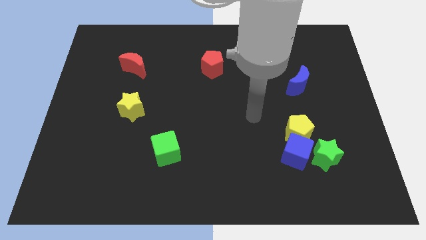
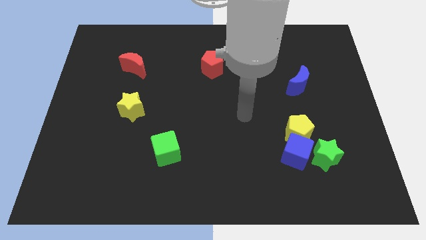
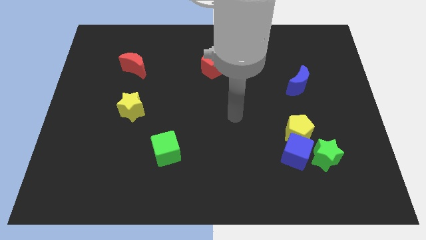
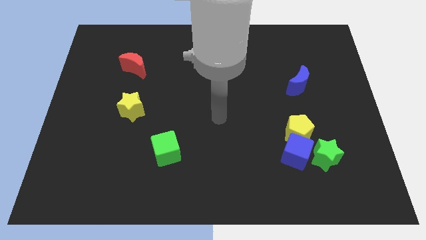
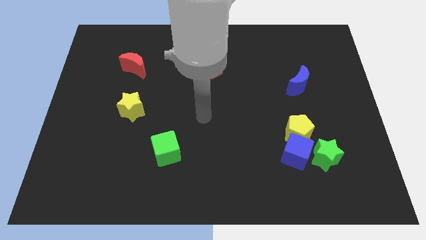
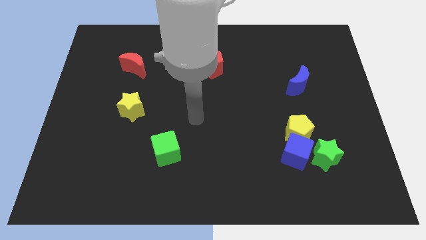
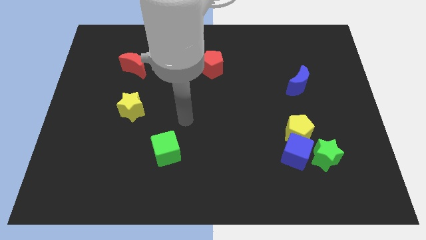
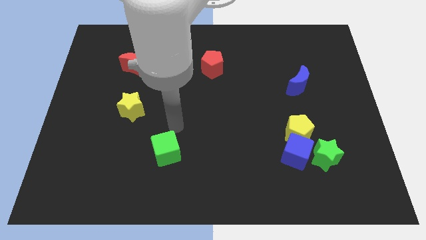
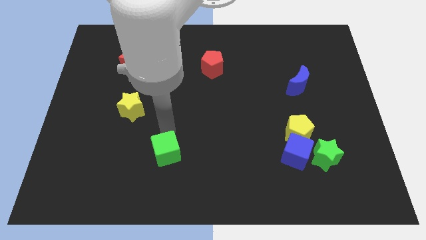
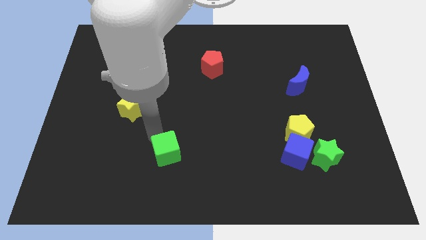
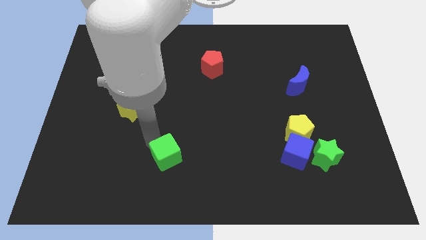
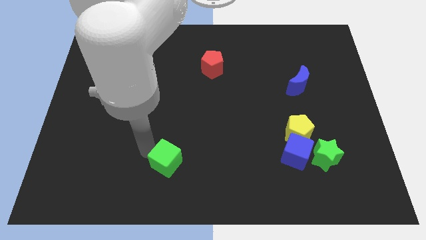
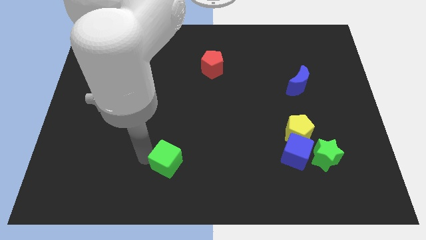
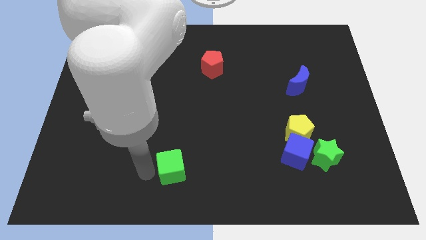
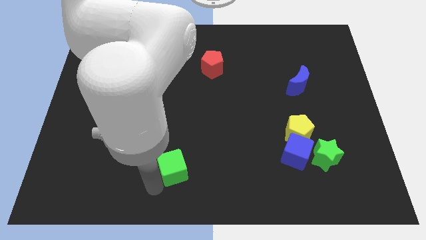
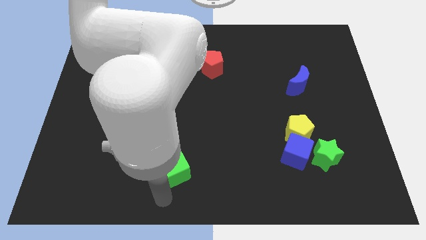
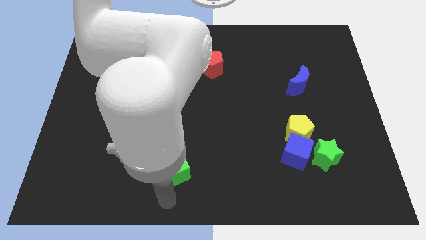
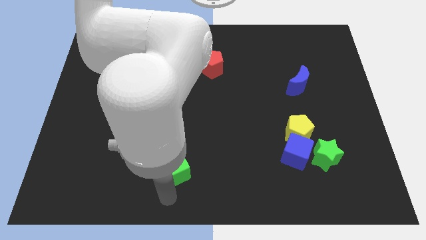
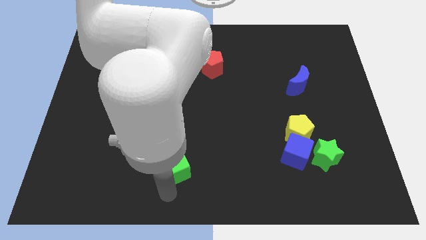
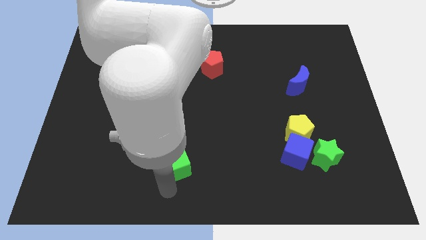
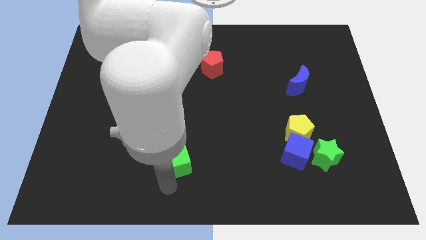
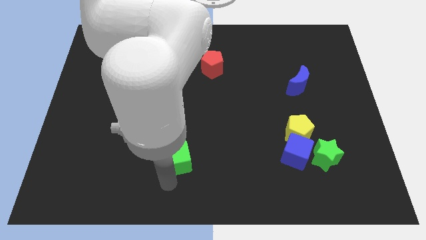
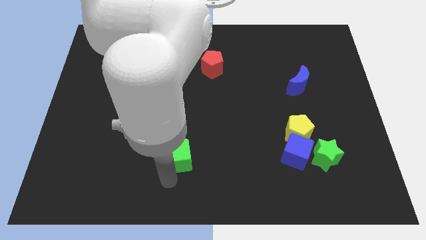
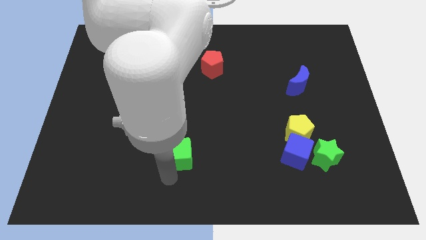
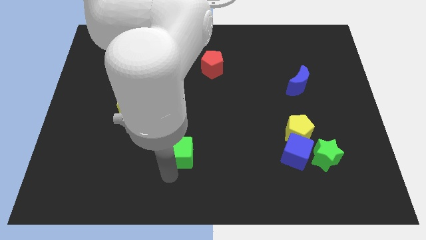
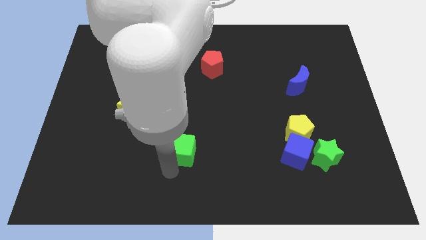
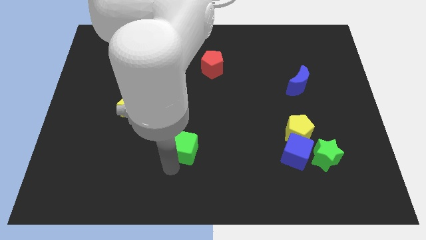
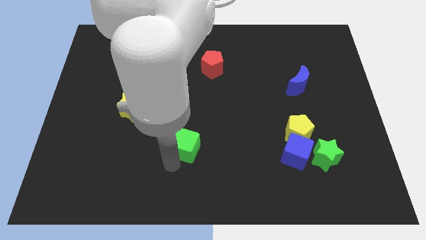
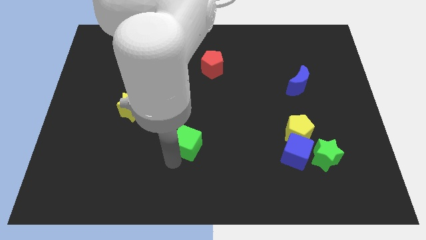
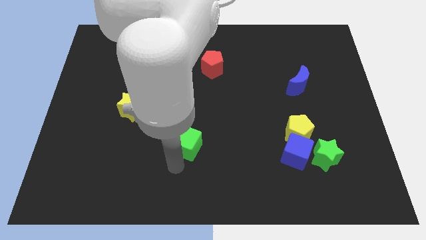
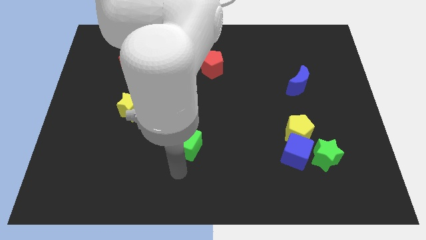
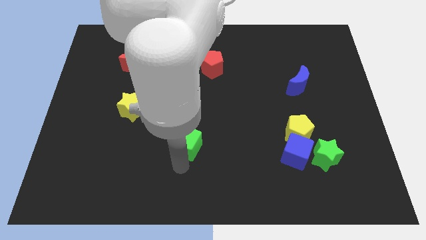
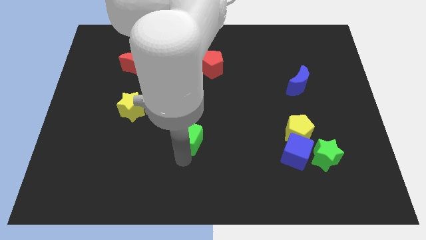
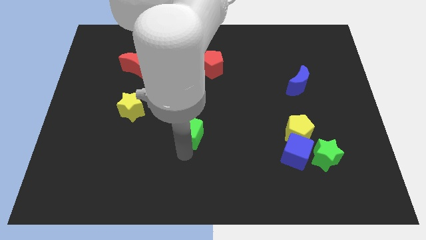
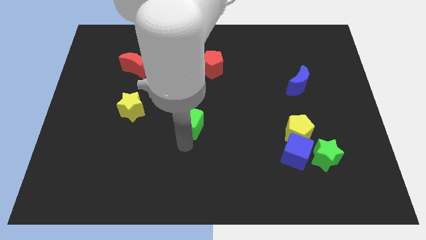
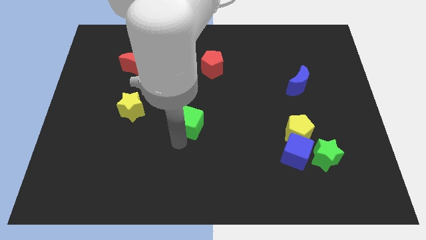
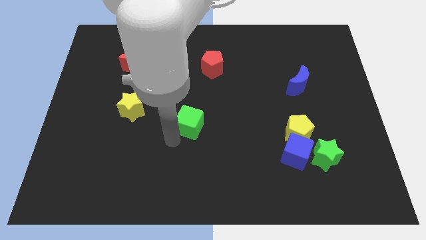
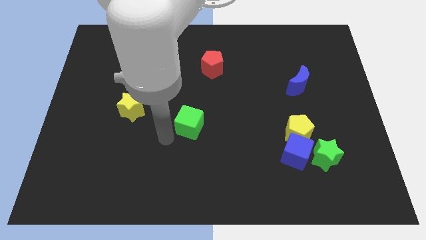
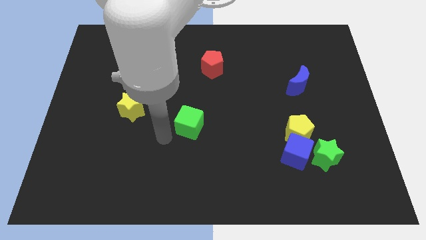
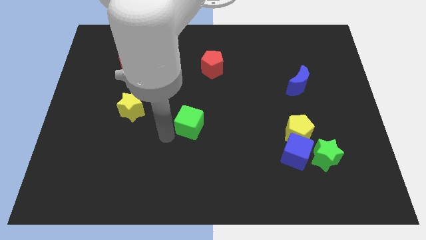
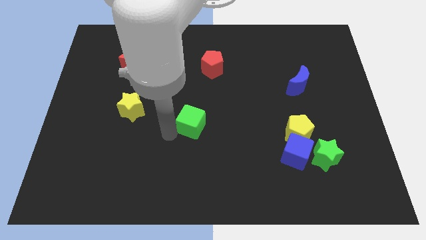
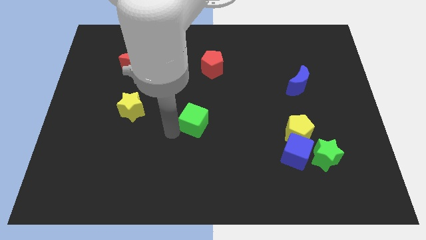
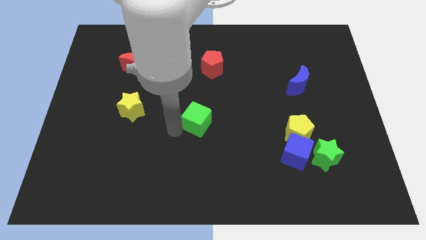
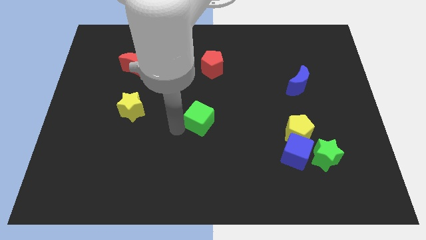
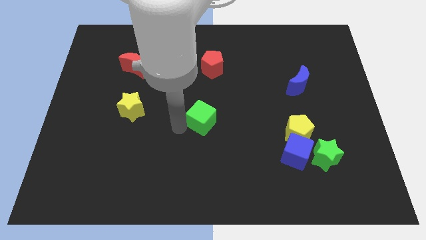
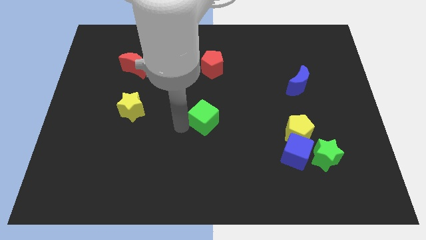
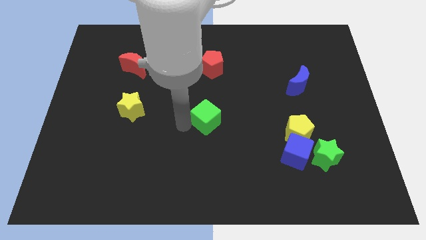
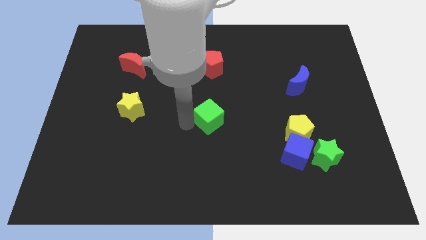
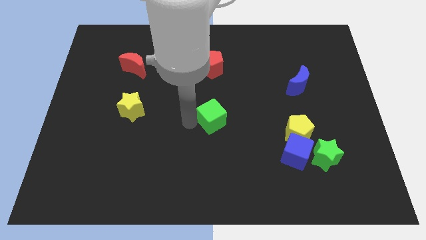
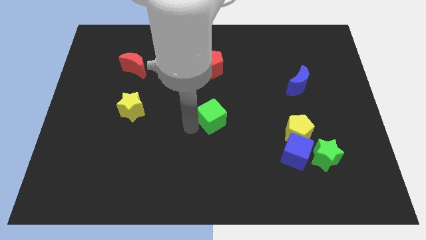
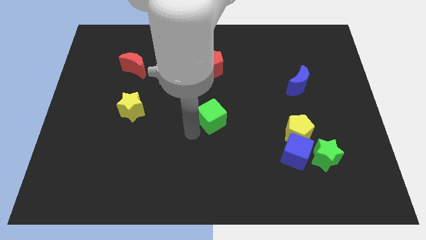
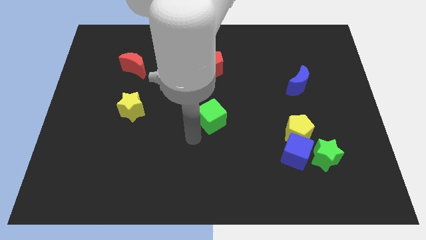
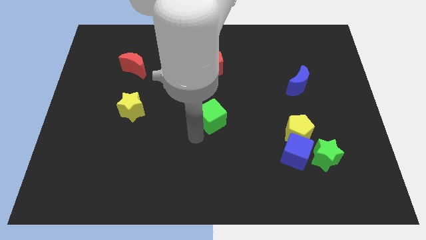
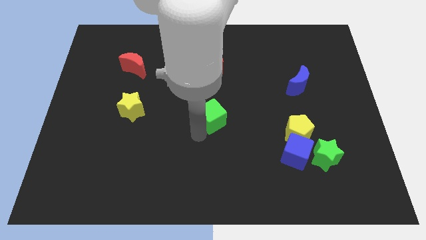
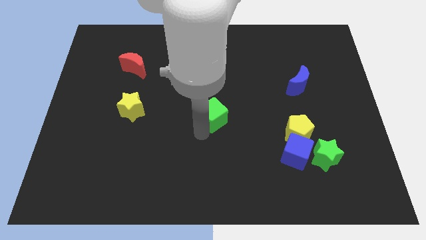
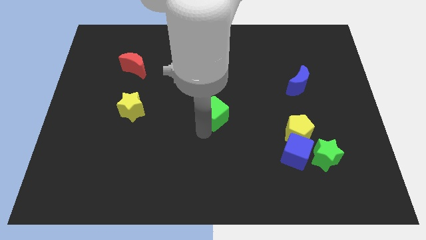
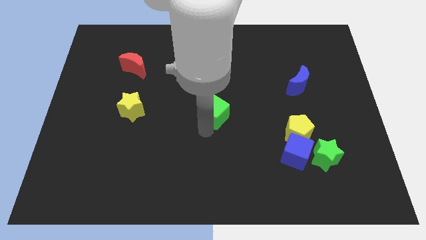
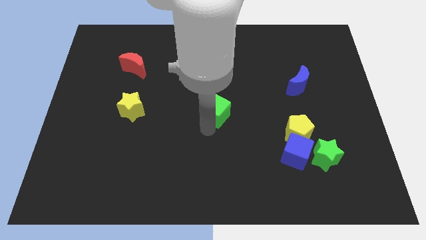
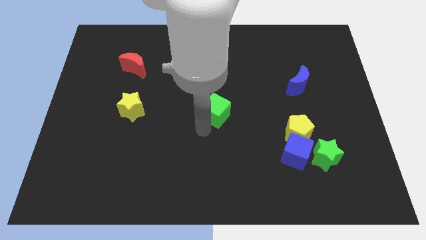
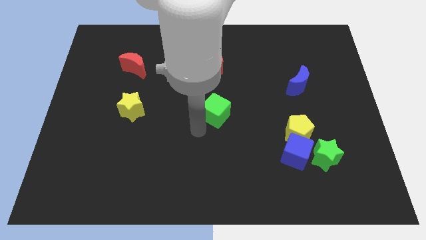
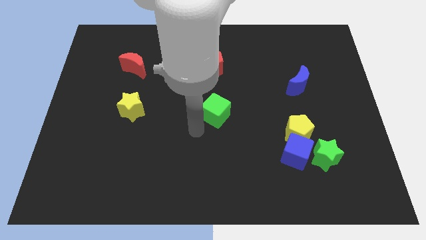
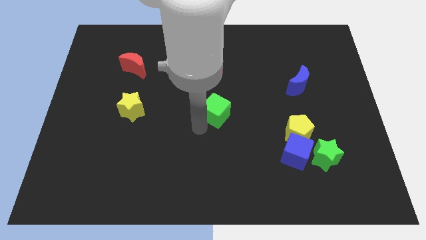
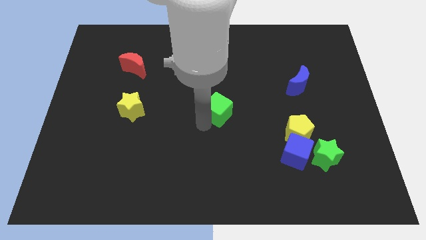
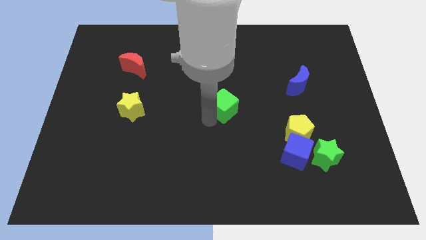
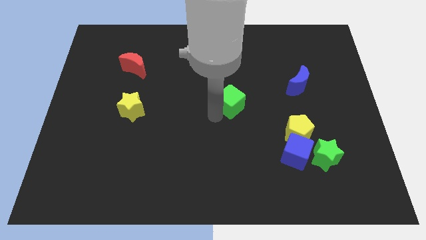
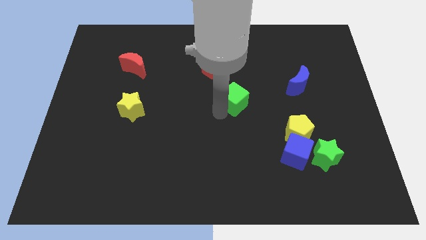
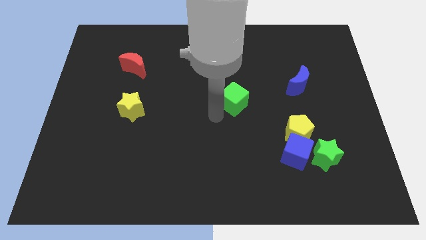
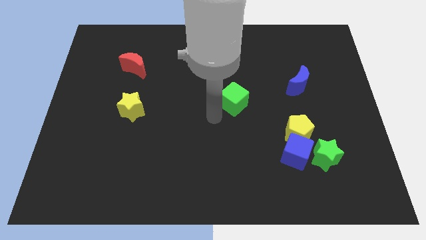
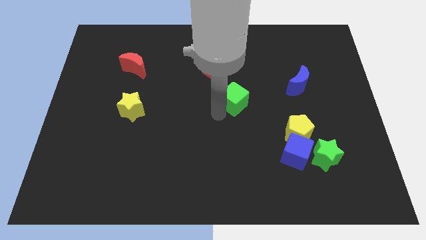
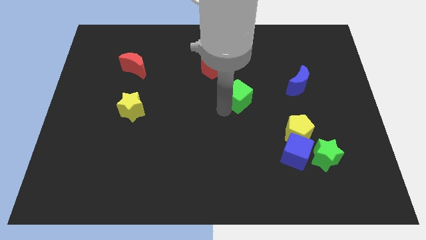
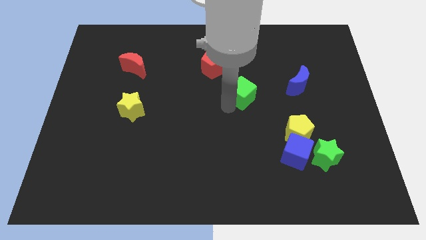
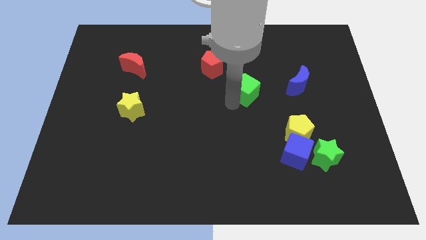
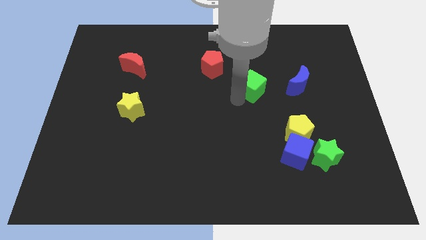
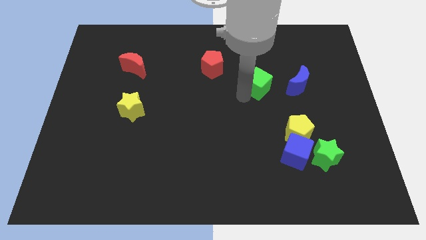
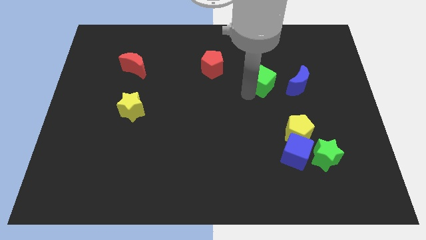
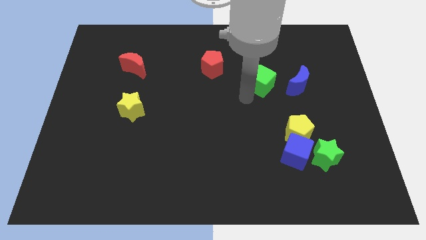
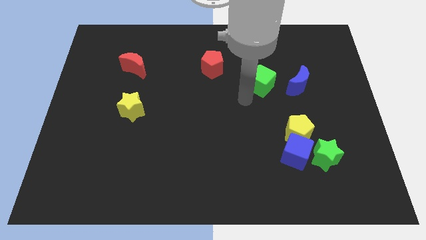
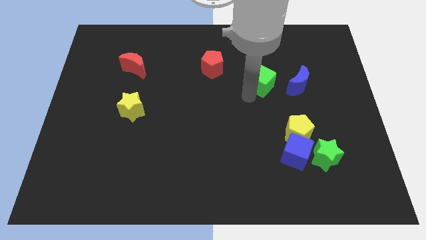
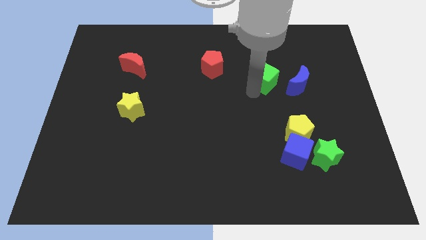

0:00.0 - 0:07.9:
push the green cube diagonally up and to the left of the blue moon
